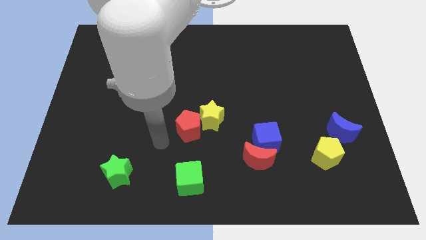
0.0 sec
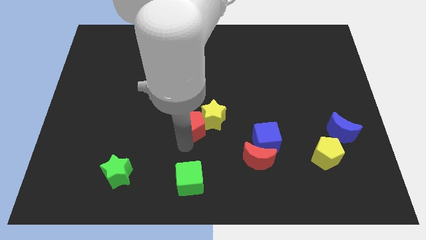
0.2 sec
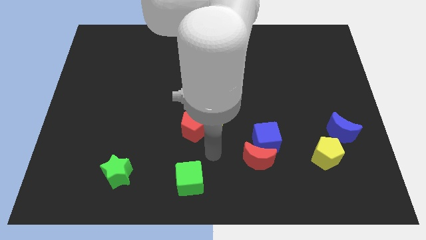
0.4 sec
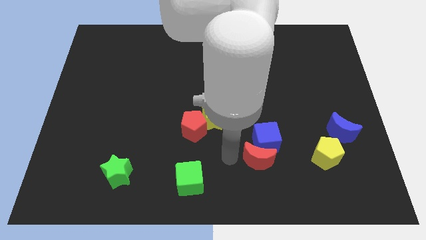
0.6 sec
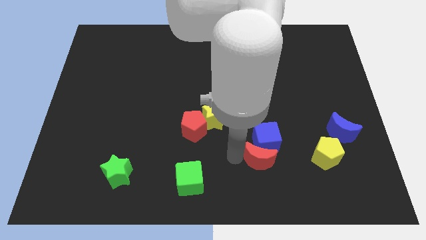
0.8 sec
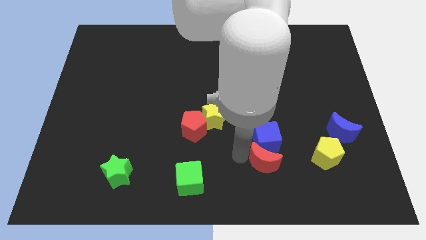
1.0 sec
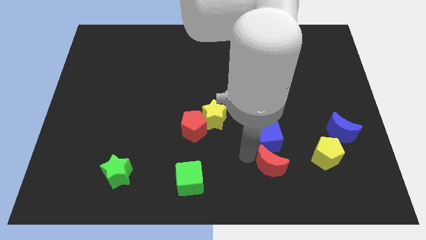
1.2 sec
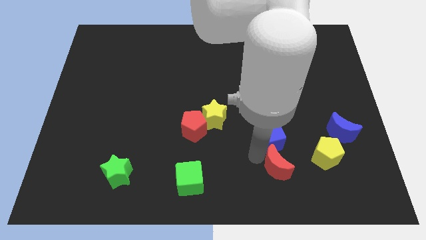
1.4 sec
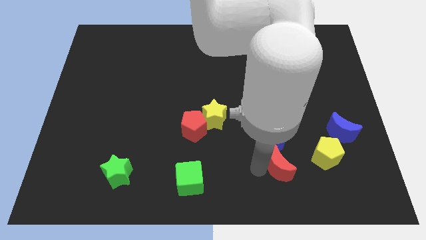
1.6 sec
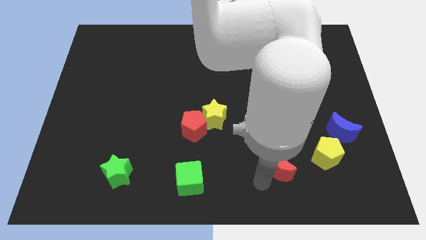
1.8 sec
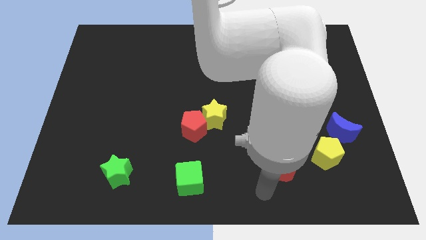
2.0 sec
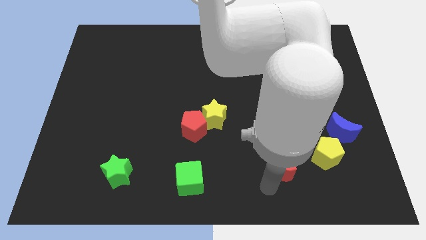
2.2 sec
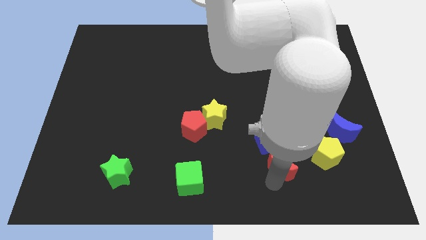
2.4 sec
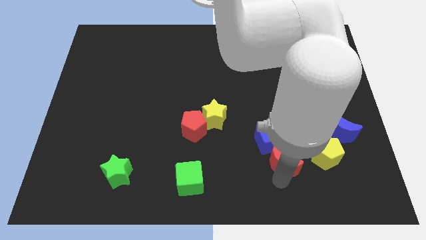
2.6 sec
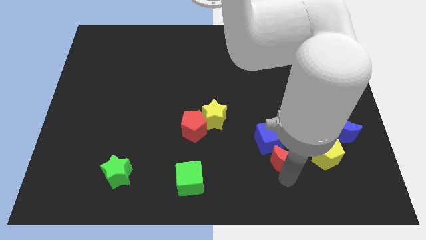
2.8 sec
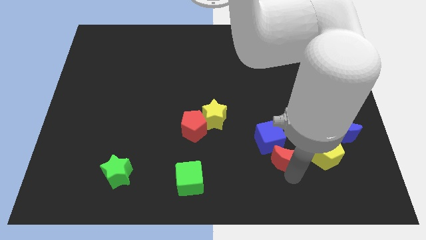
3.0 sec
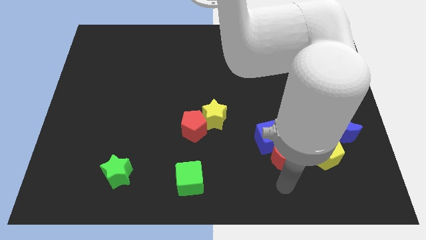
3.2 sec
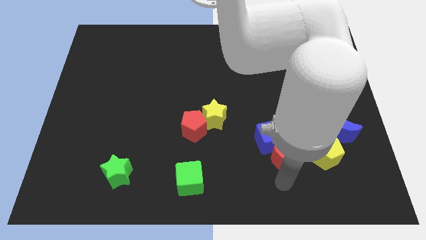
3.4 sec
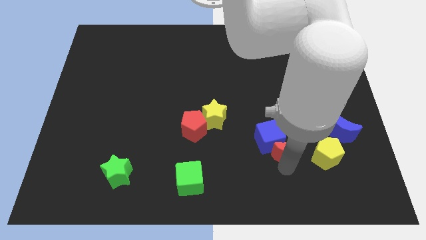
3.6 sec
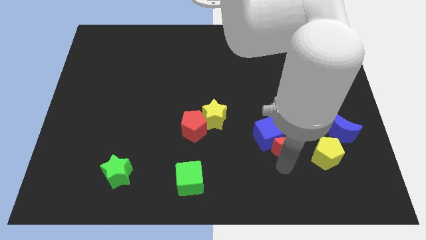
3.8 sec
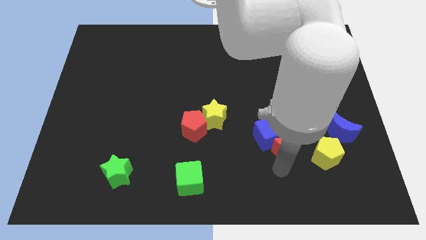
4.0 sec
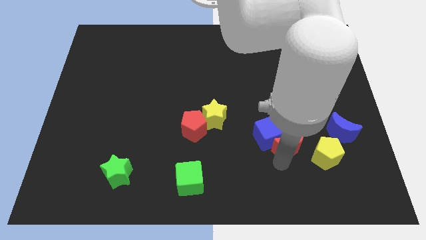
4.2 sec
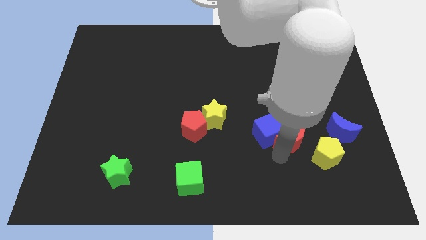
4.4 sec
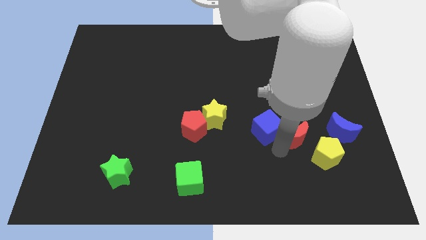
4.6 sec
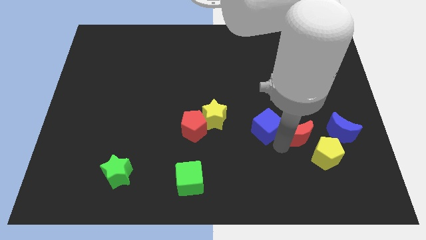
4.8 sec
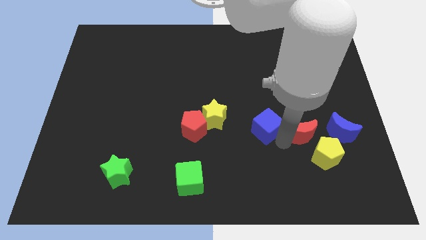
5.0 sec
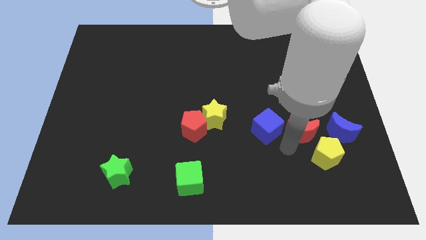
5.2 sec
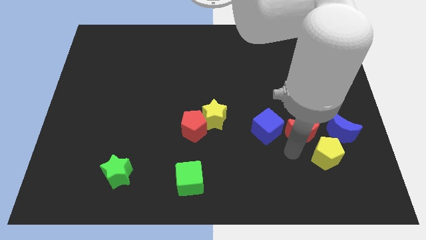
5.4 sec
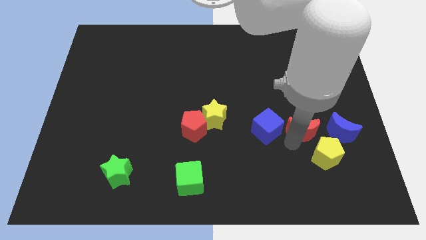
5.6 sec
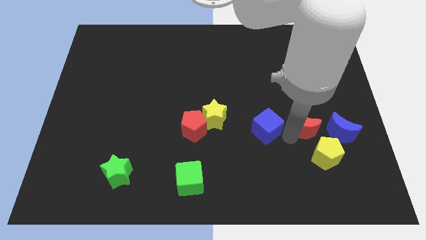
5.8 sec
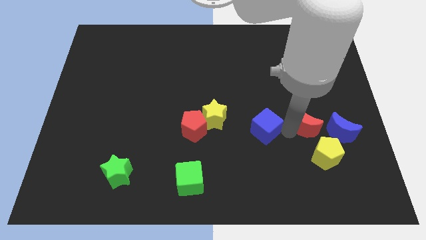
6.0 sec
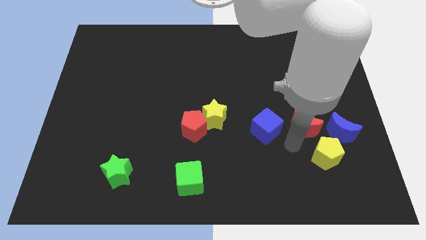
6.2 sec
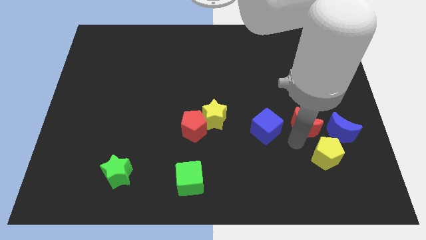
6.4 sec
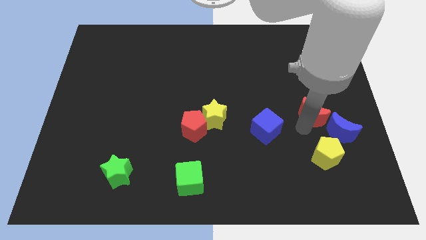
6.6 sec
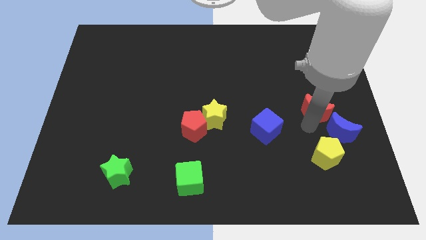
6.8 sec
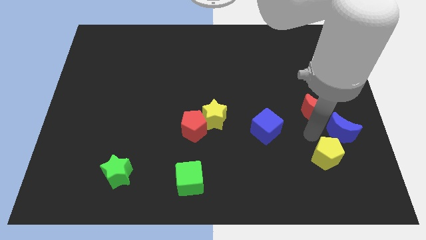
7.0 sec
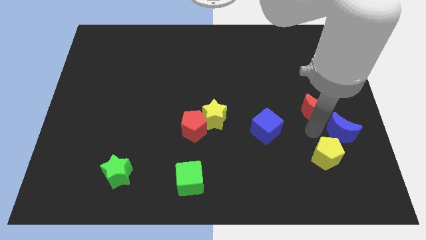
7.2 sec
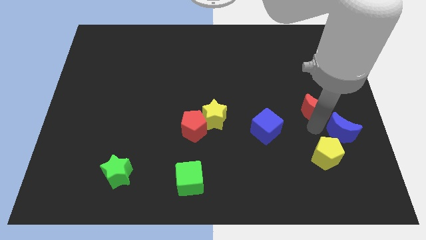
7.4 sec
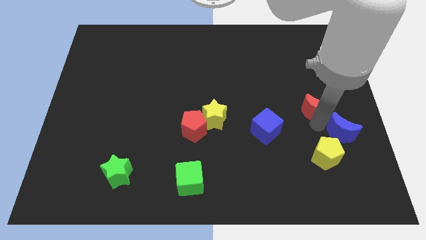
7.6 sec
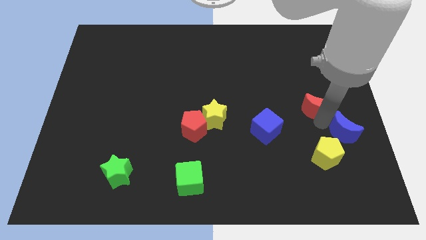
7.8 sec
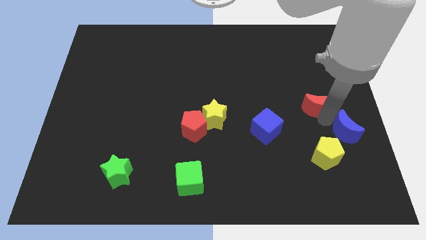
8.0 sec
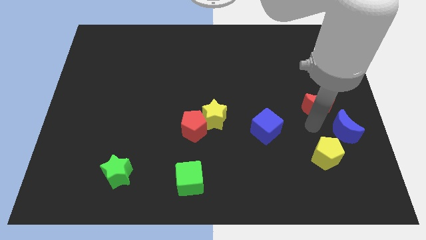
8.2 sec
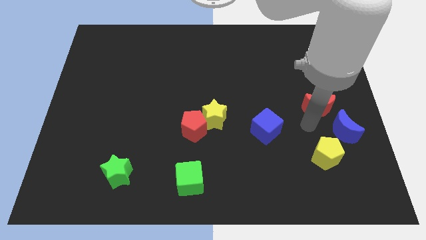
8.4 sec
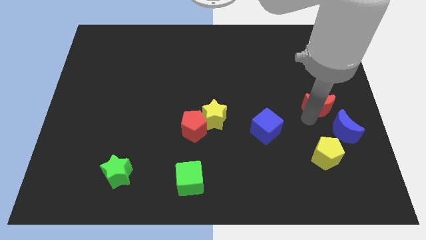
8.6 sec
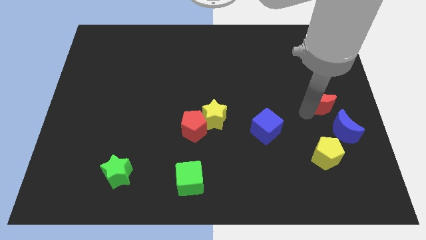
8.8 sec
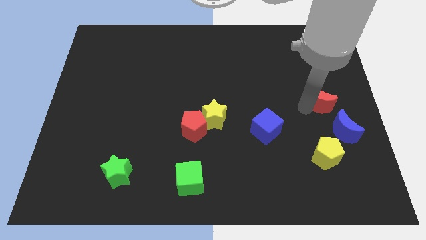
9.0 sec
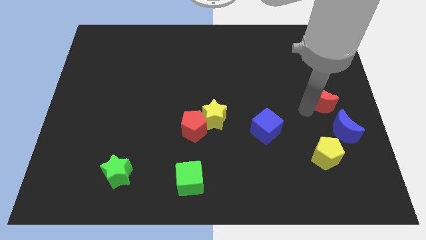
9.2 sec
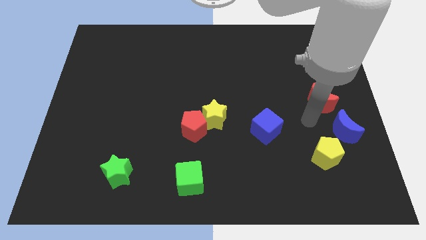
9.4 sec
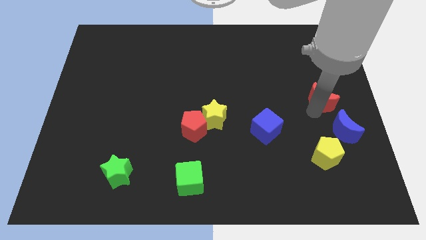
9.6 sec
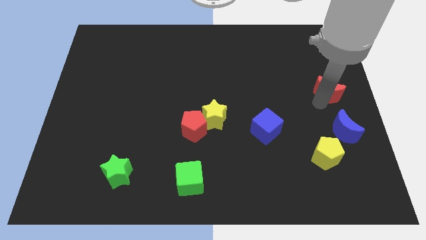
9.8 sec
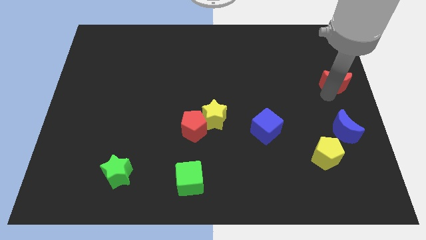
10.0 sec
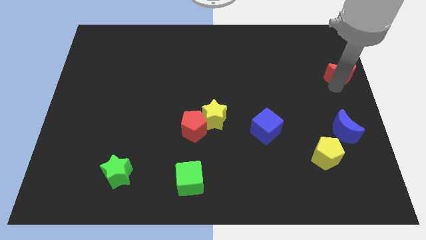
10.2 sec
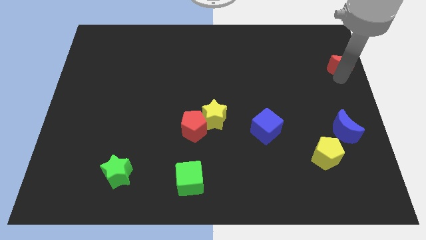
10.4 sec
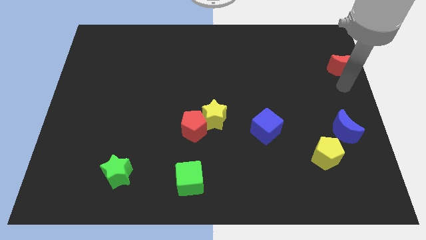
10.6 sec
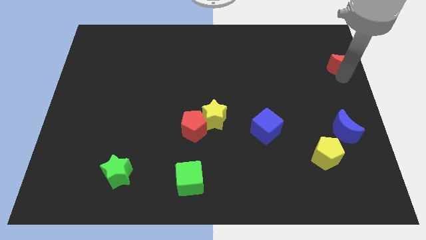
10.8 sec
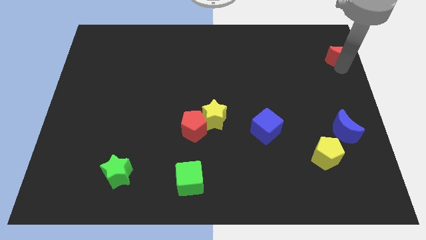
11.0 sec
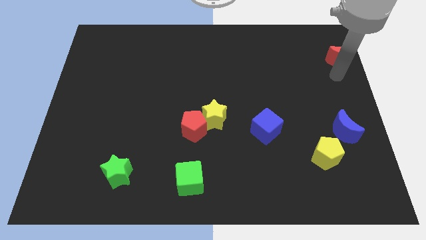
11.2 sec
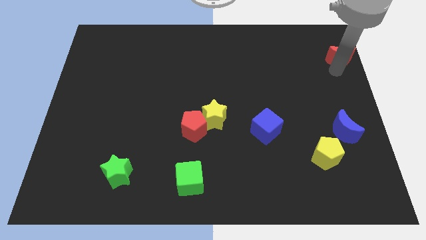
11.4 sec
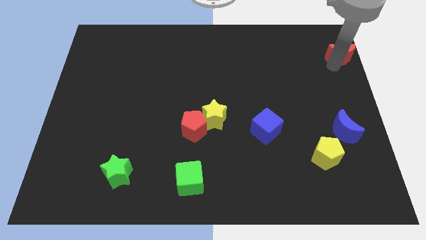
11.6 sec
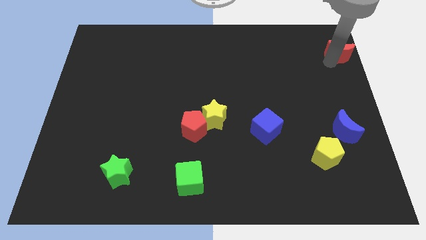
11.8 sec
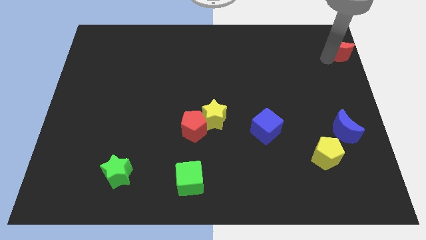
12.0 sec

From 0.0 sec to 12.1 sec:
push the red moon to the top right of the board
